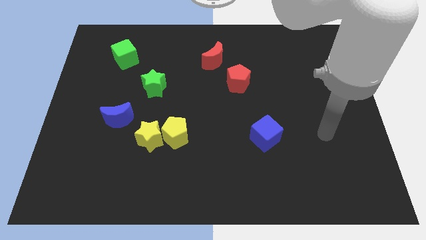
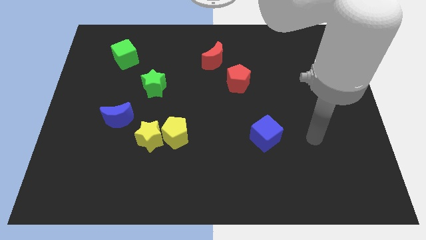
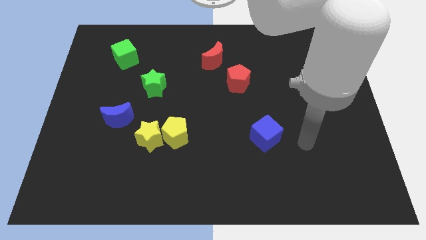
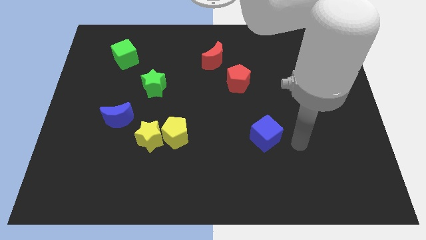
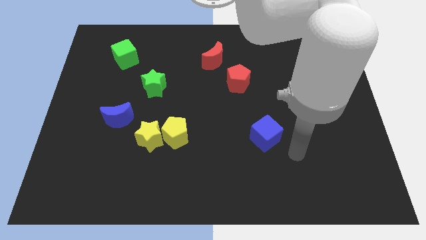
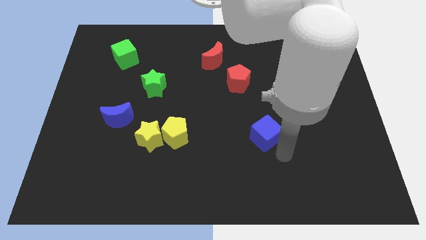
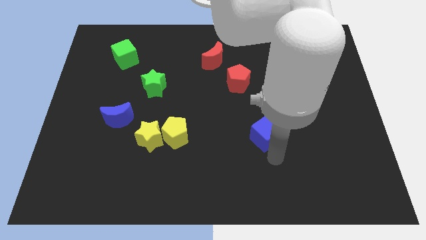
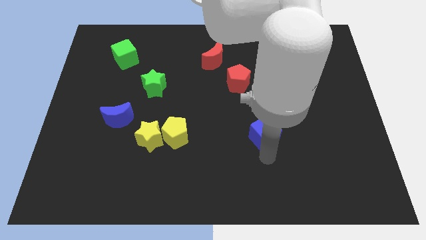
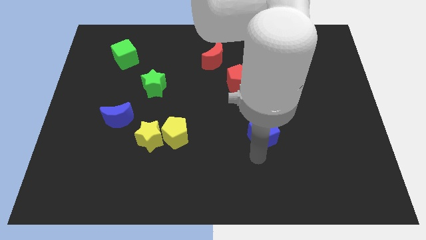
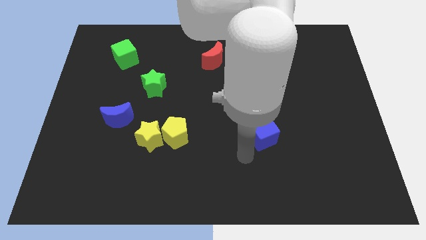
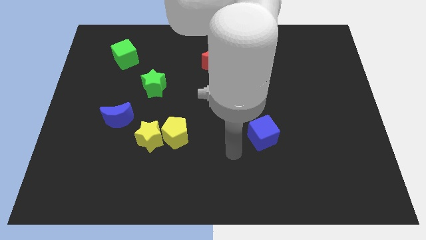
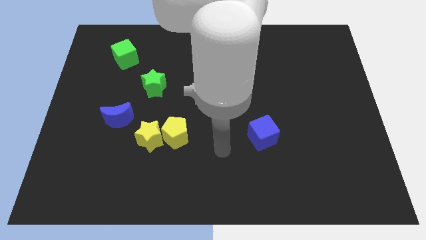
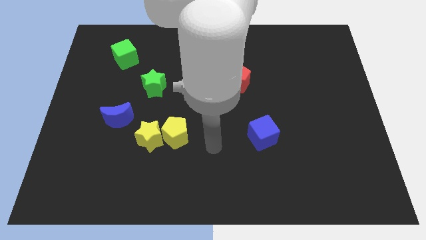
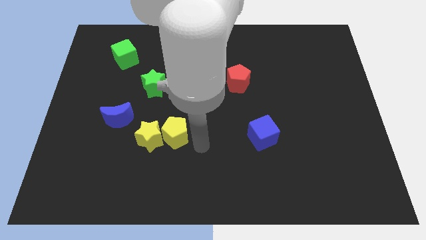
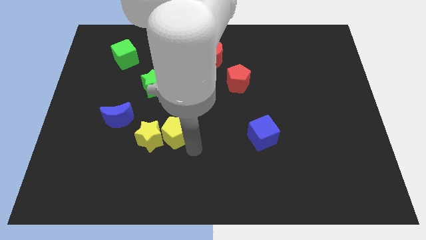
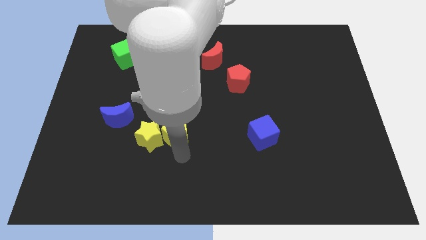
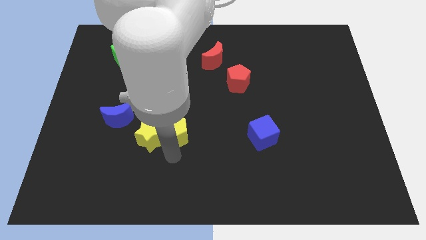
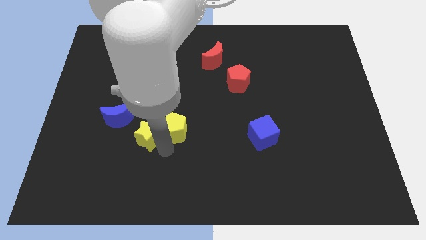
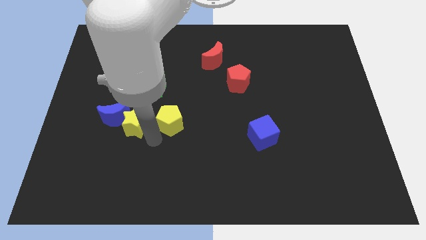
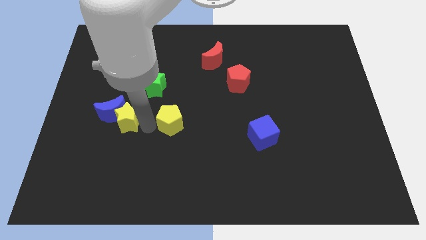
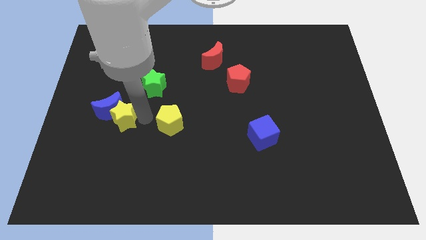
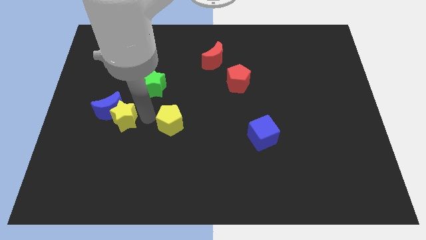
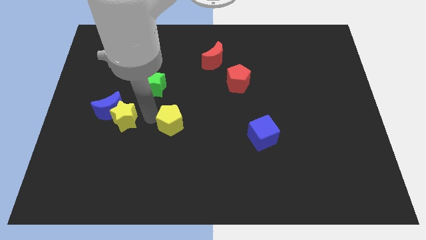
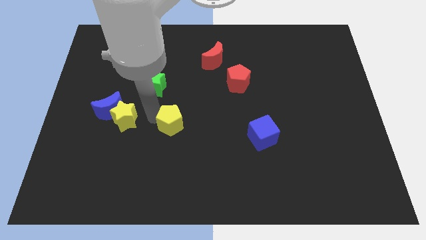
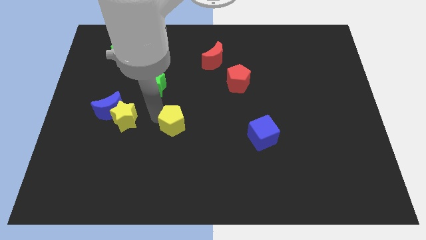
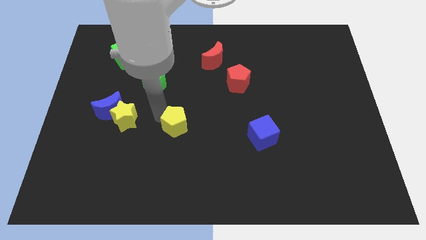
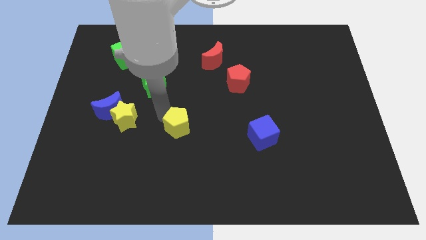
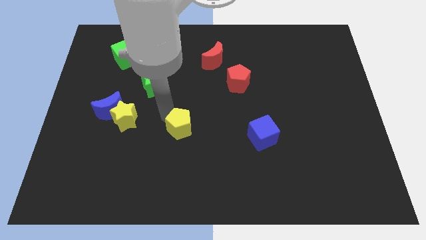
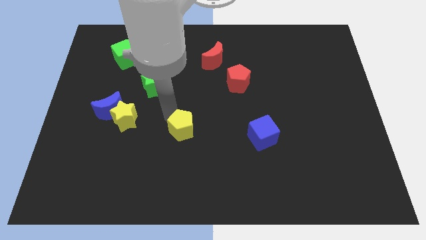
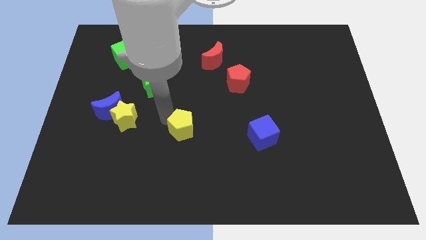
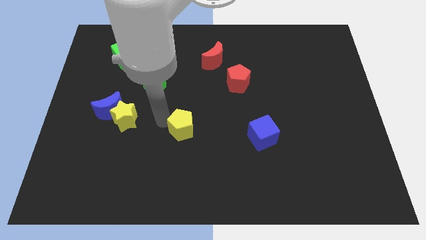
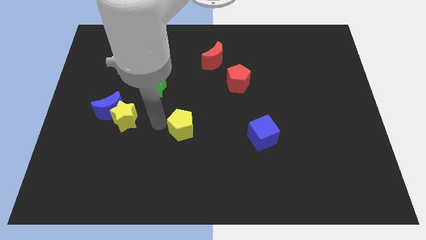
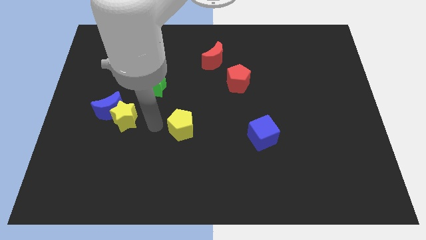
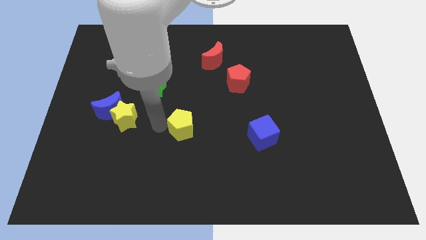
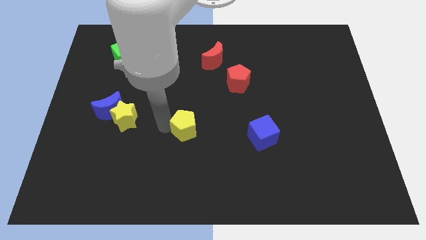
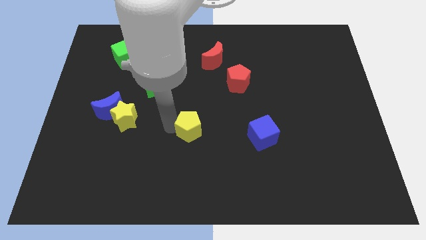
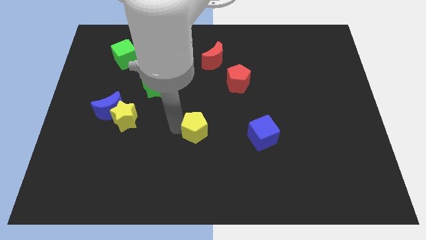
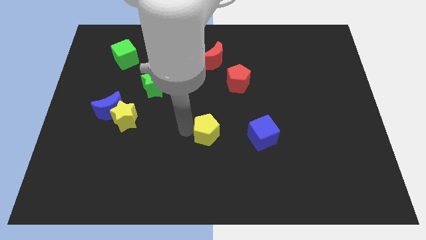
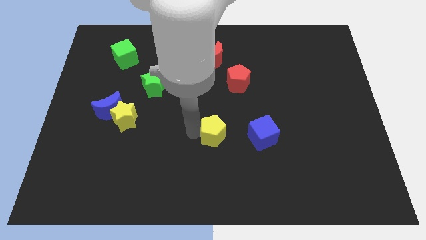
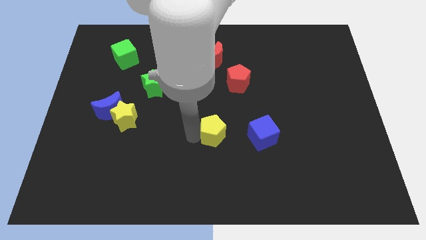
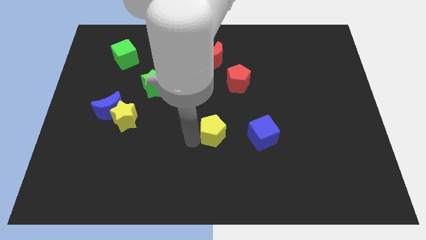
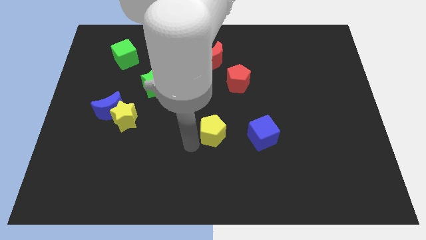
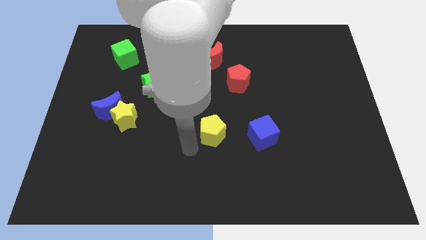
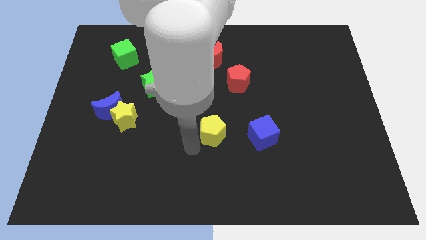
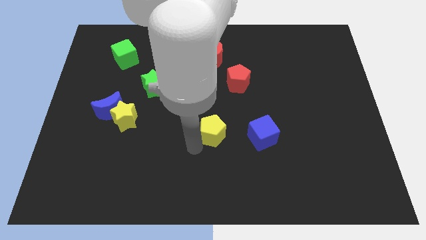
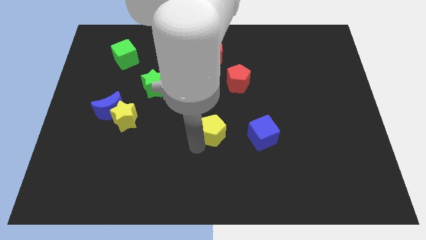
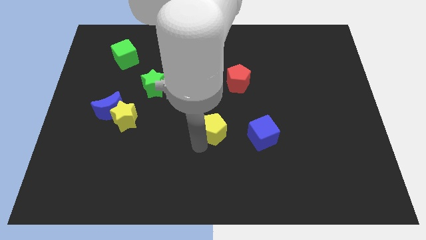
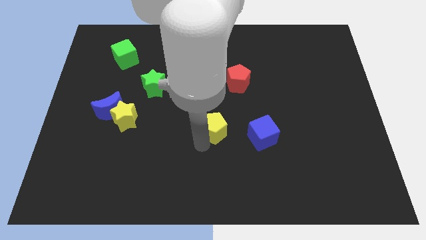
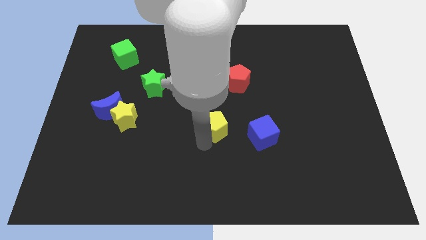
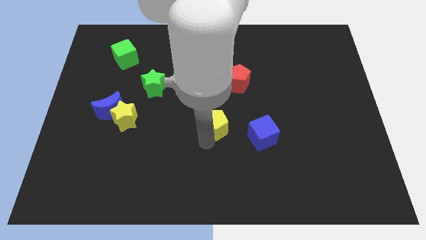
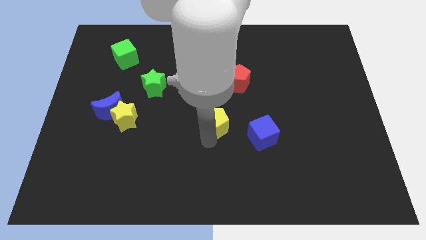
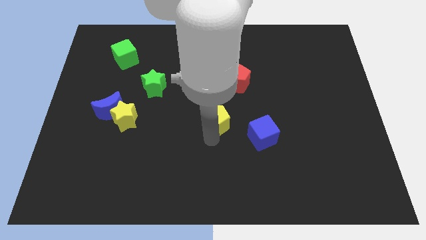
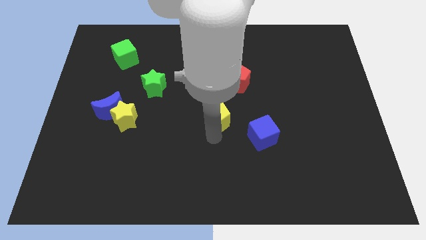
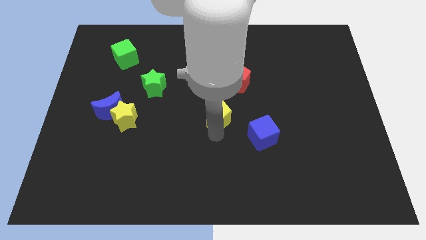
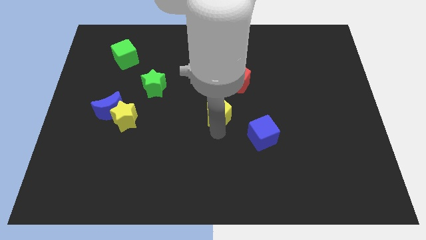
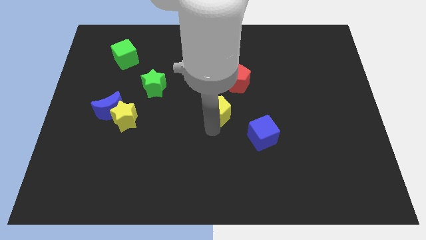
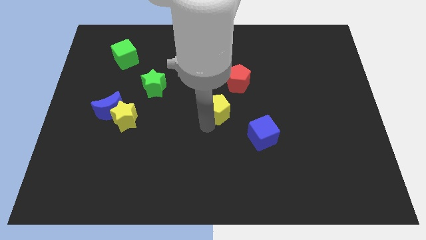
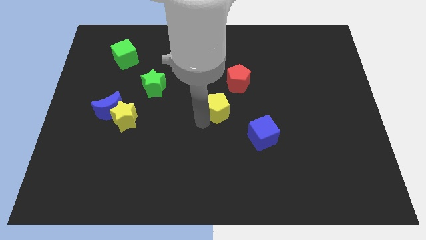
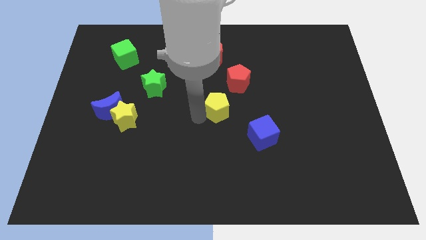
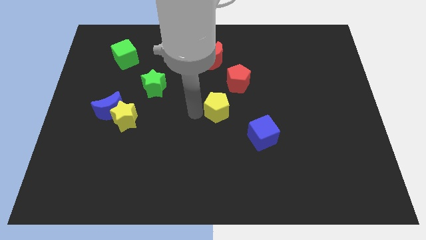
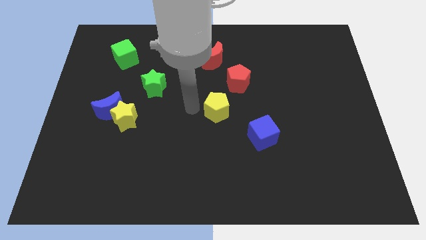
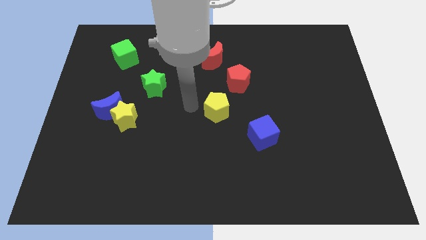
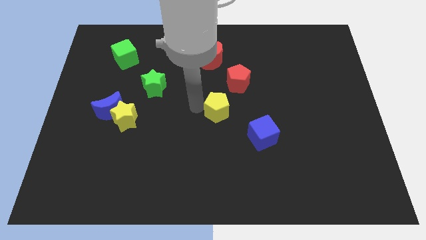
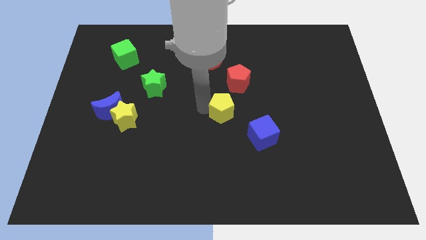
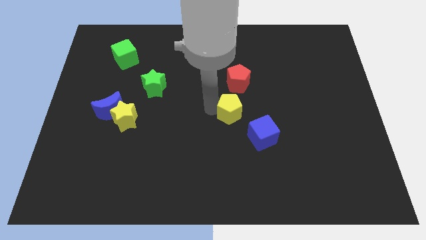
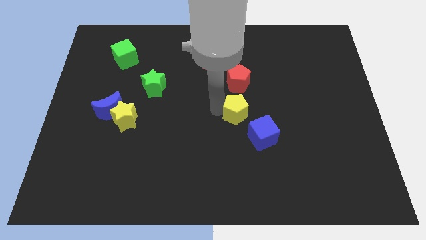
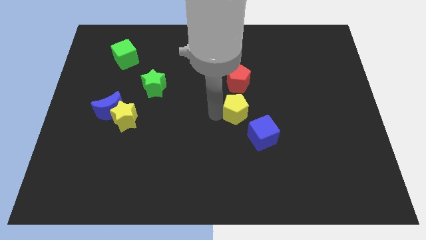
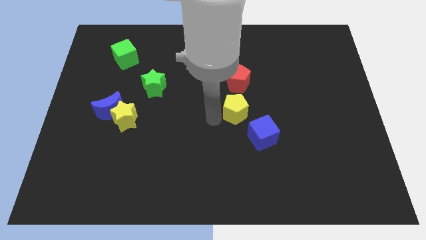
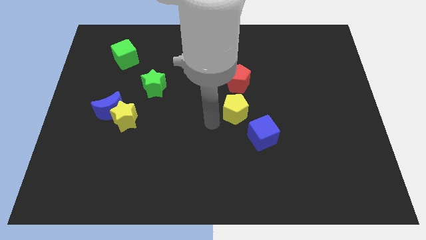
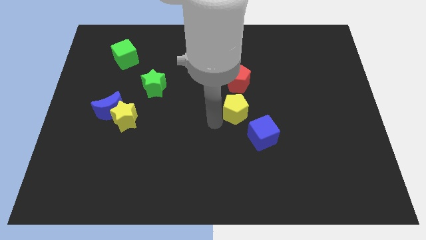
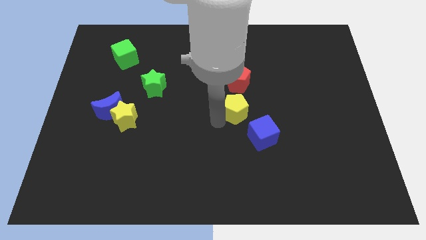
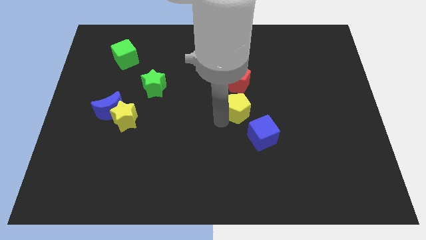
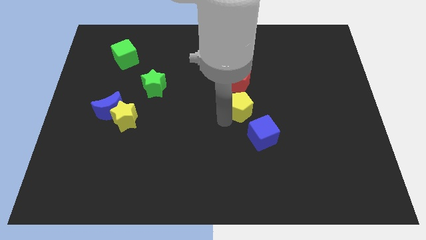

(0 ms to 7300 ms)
put the yellow pentagon above the blue cube
